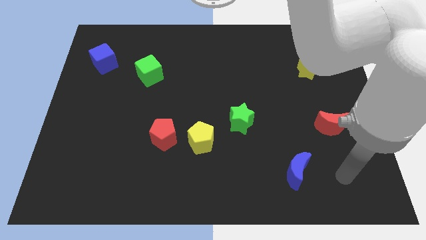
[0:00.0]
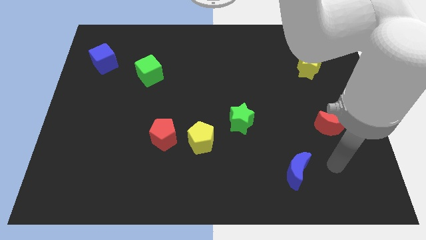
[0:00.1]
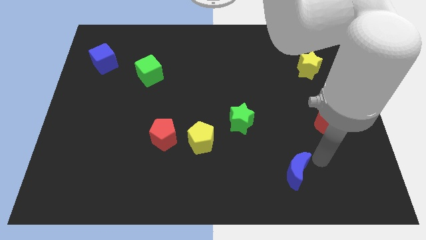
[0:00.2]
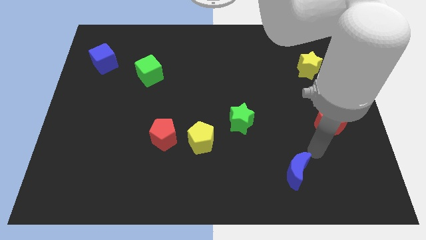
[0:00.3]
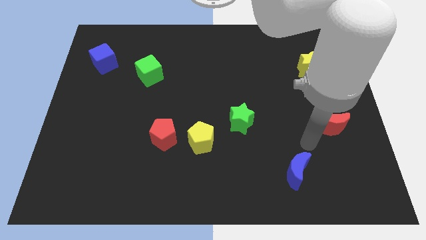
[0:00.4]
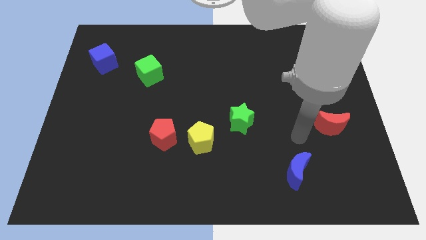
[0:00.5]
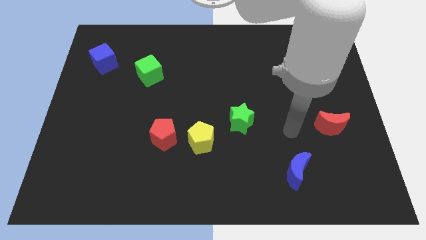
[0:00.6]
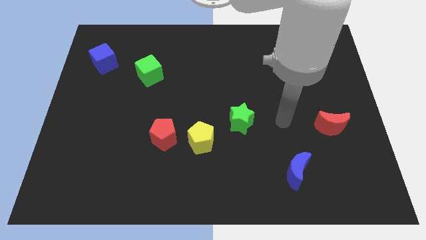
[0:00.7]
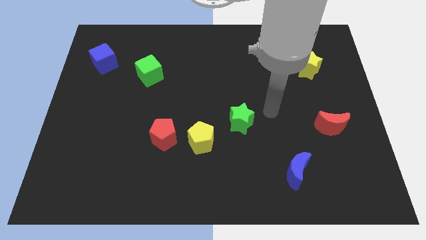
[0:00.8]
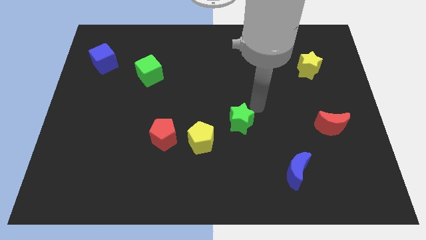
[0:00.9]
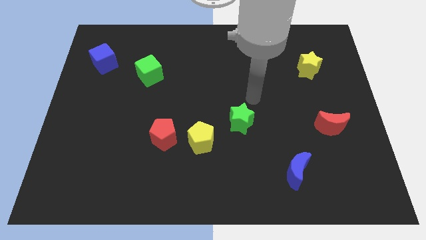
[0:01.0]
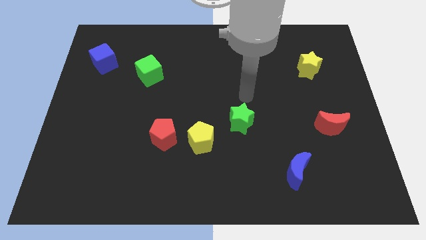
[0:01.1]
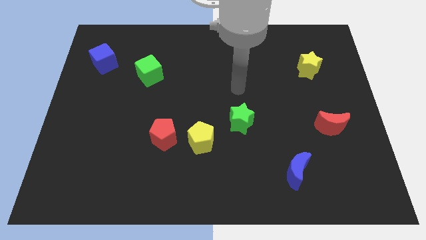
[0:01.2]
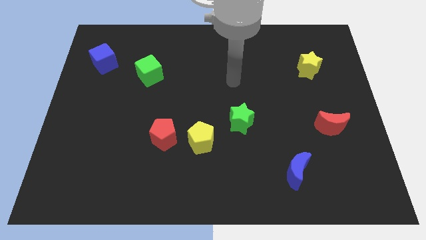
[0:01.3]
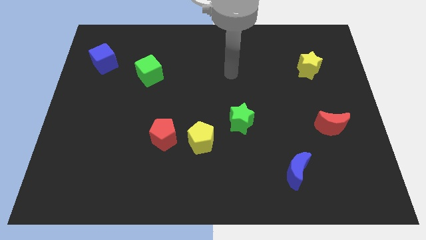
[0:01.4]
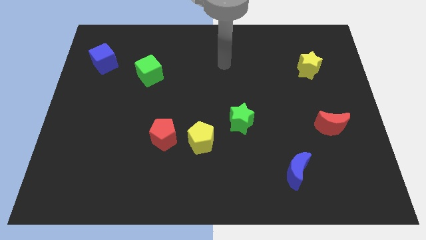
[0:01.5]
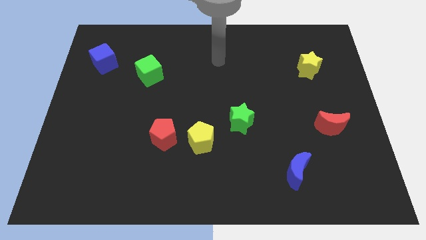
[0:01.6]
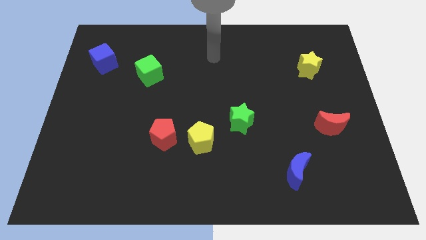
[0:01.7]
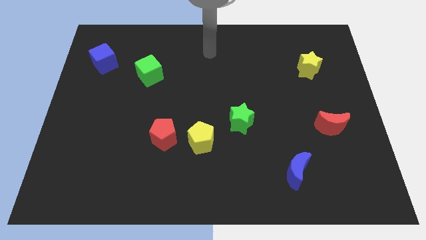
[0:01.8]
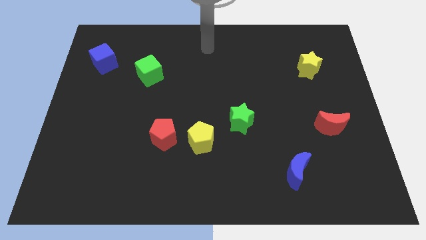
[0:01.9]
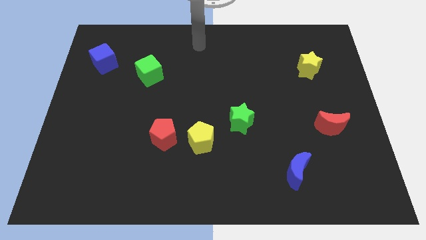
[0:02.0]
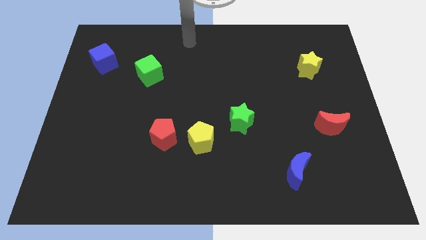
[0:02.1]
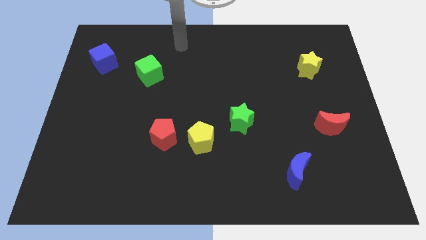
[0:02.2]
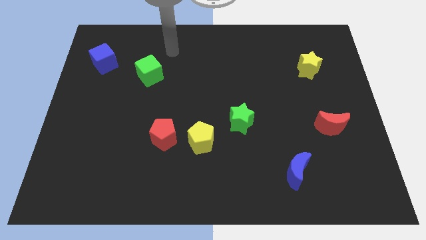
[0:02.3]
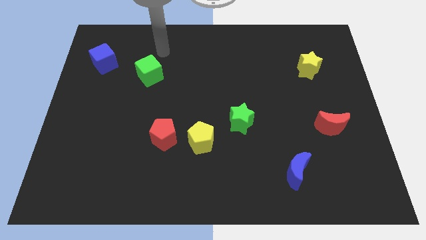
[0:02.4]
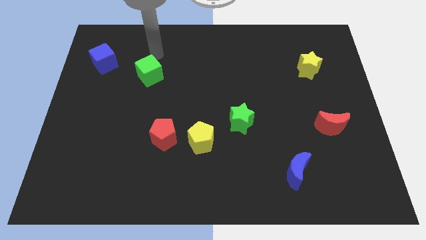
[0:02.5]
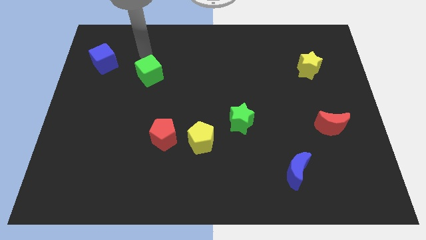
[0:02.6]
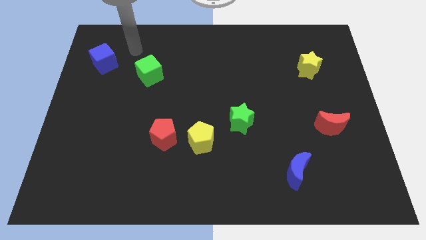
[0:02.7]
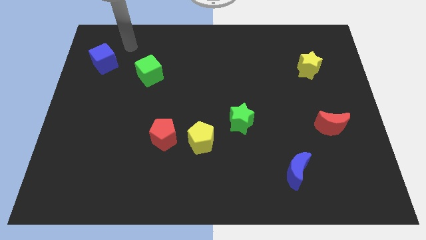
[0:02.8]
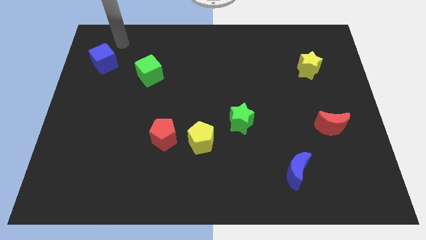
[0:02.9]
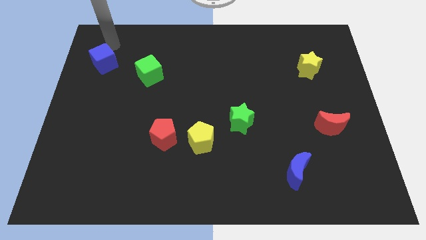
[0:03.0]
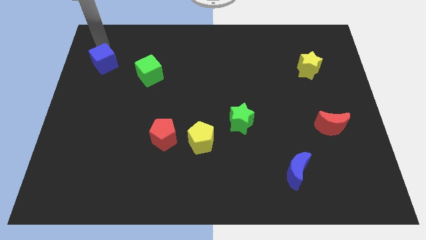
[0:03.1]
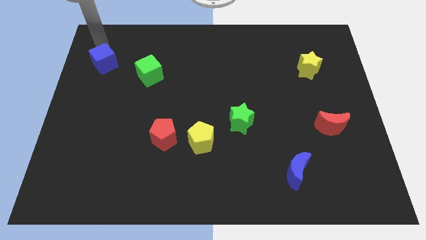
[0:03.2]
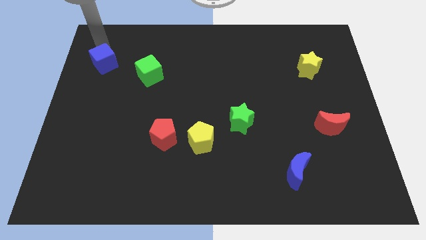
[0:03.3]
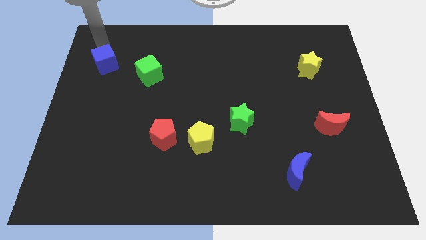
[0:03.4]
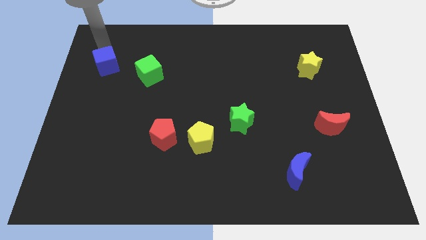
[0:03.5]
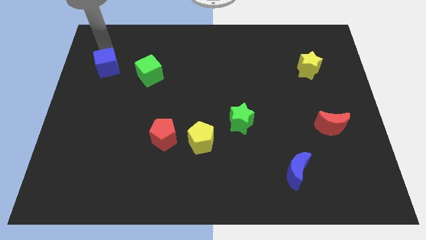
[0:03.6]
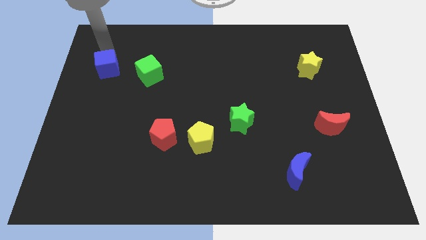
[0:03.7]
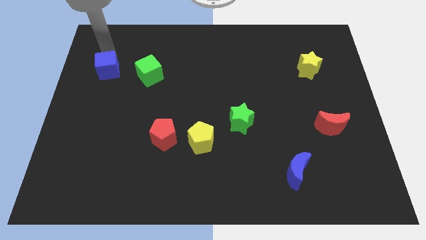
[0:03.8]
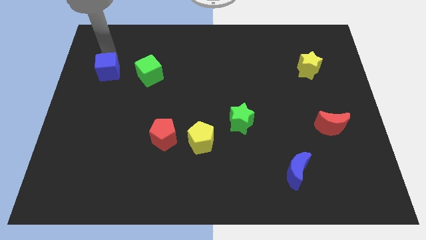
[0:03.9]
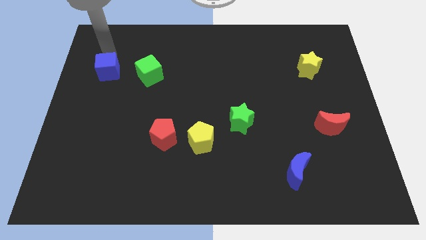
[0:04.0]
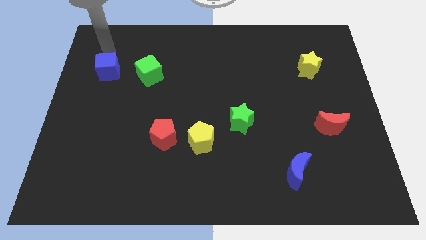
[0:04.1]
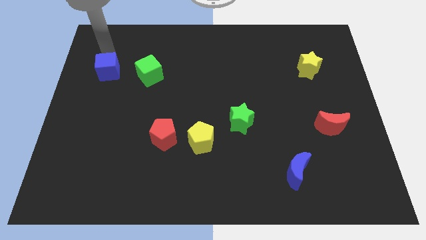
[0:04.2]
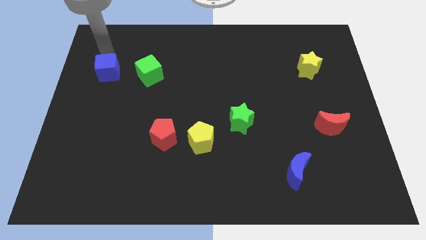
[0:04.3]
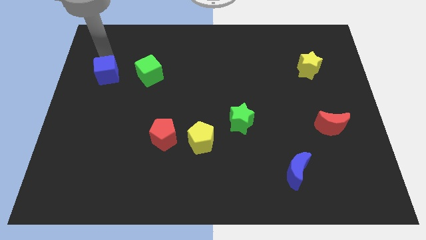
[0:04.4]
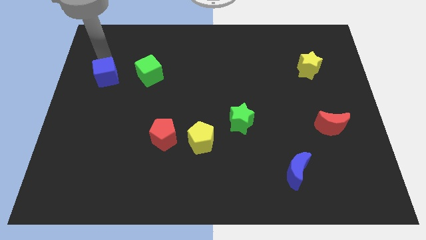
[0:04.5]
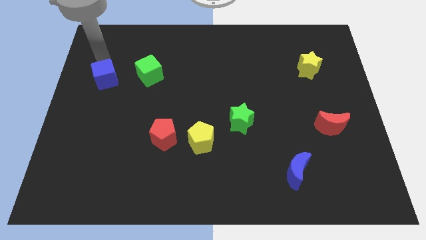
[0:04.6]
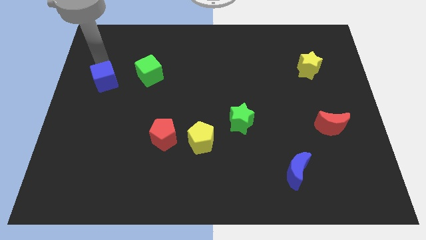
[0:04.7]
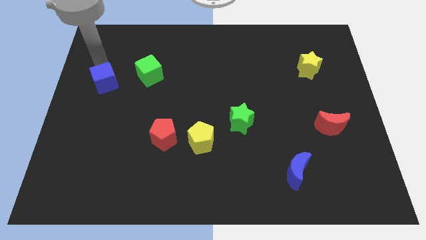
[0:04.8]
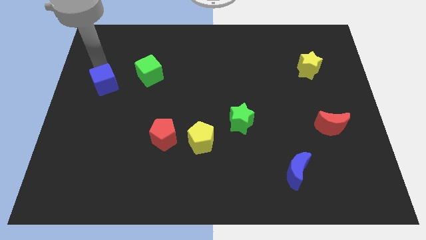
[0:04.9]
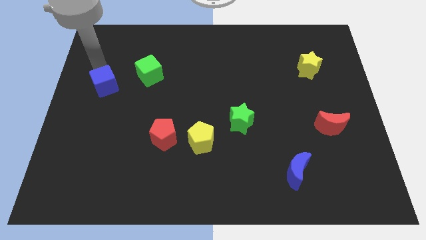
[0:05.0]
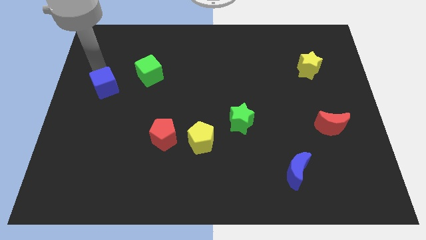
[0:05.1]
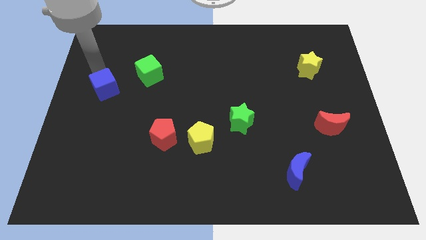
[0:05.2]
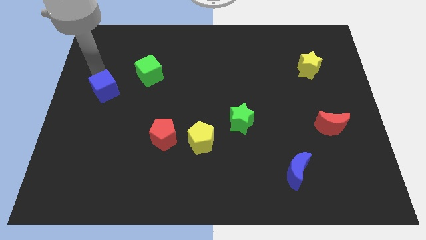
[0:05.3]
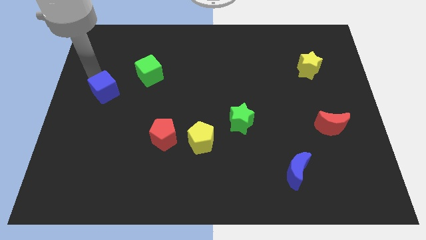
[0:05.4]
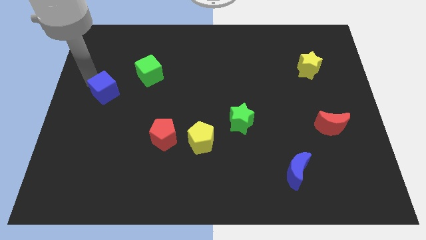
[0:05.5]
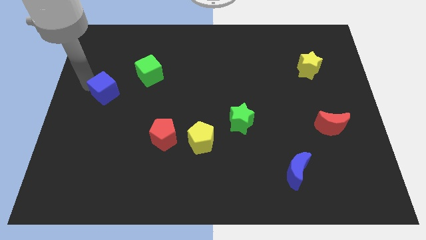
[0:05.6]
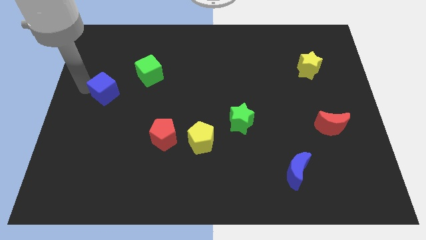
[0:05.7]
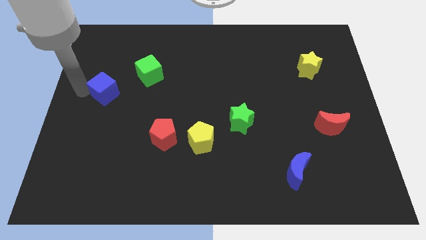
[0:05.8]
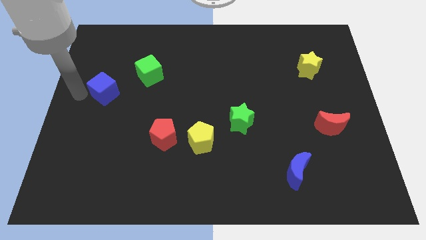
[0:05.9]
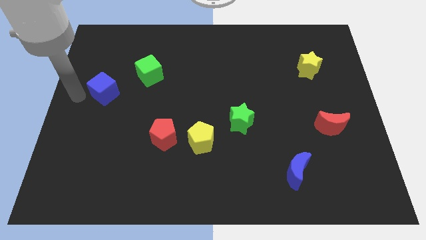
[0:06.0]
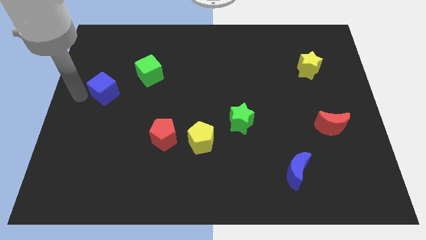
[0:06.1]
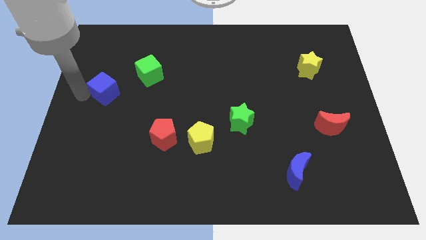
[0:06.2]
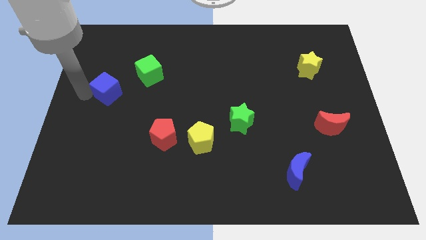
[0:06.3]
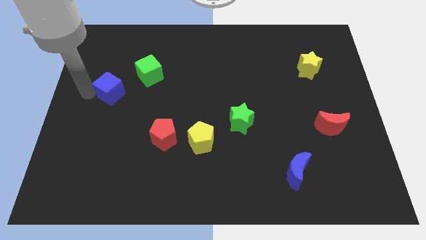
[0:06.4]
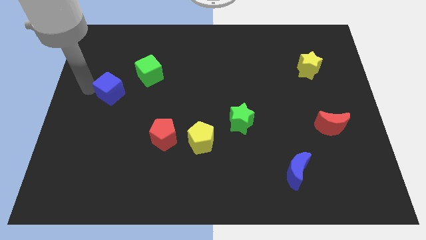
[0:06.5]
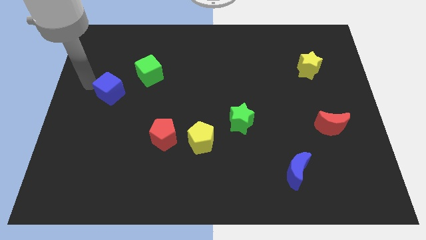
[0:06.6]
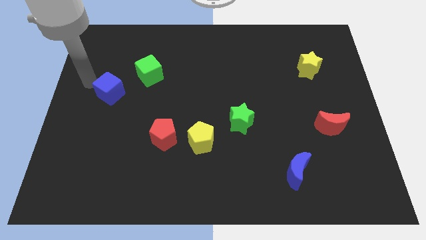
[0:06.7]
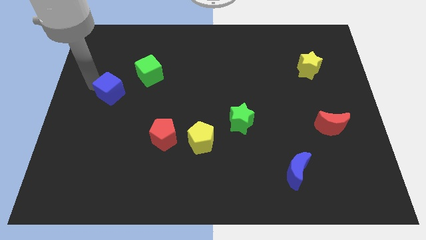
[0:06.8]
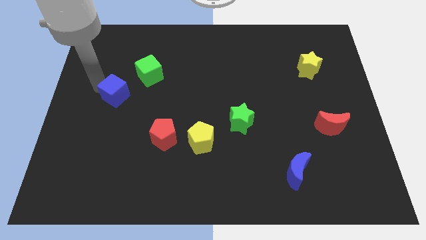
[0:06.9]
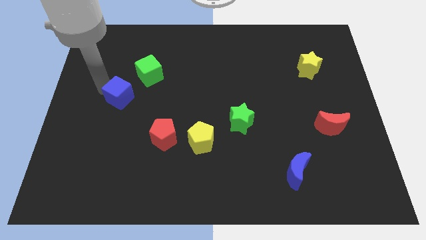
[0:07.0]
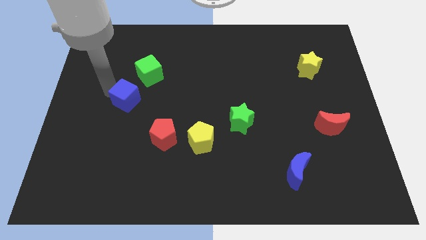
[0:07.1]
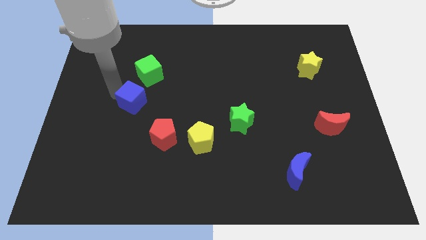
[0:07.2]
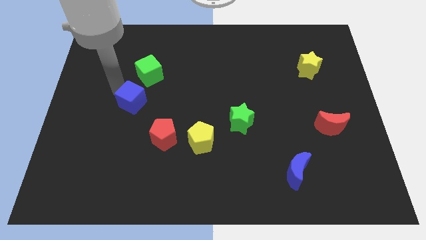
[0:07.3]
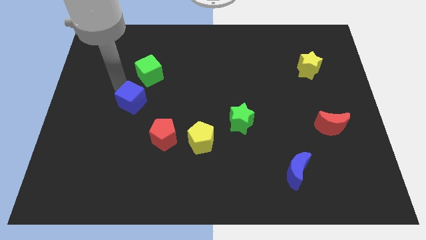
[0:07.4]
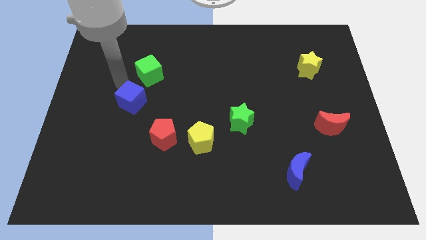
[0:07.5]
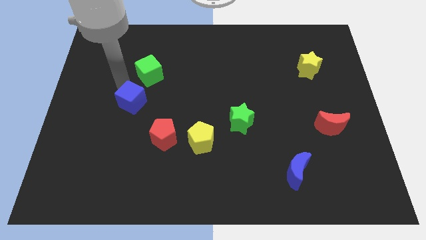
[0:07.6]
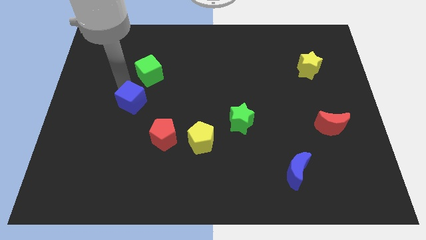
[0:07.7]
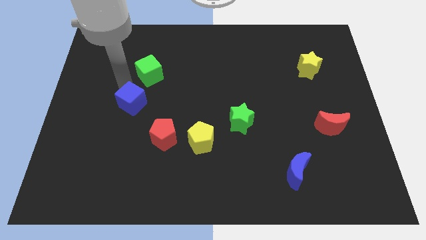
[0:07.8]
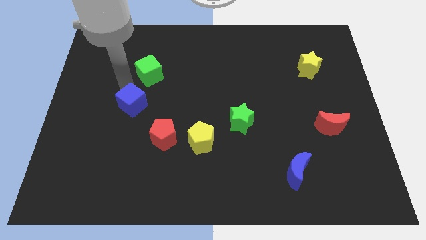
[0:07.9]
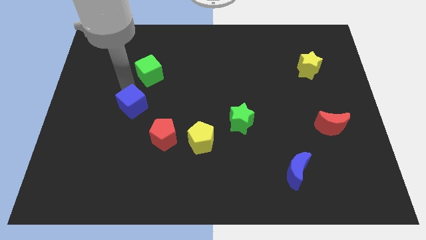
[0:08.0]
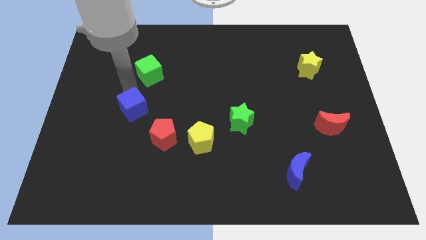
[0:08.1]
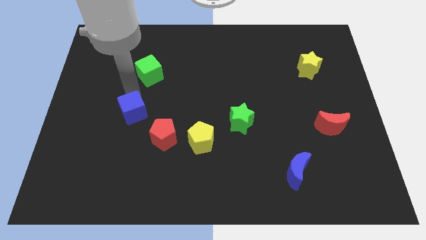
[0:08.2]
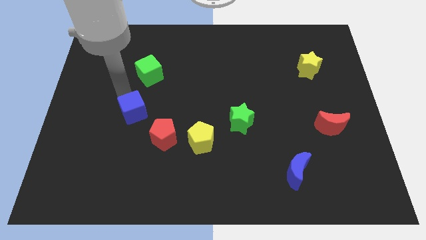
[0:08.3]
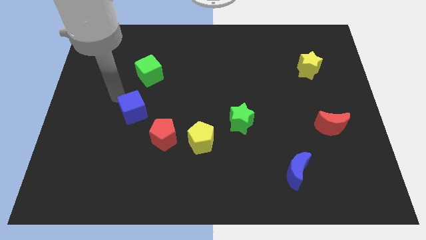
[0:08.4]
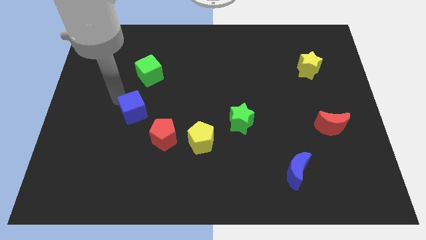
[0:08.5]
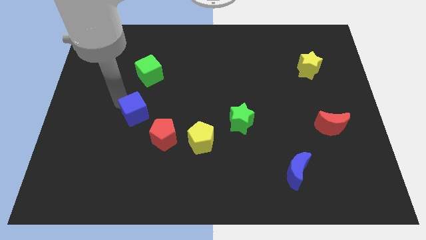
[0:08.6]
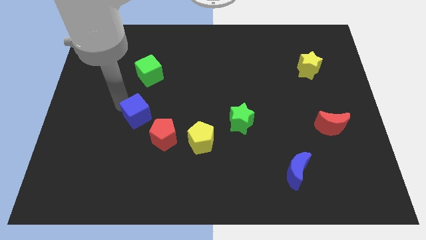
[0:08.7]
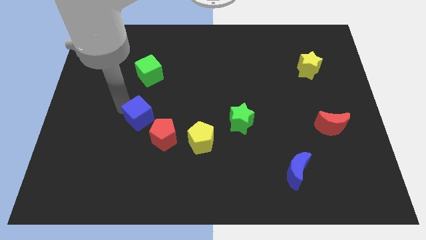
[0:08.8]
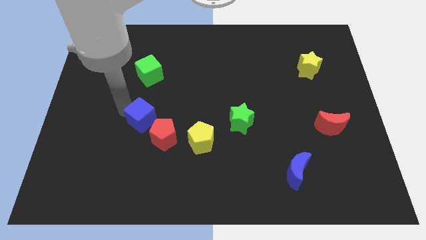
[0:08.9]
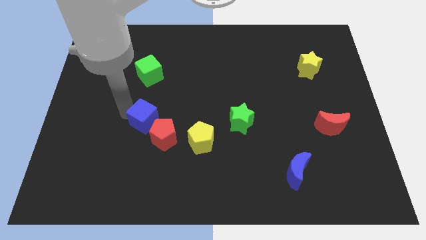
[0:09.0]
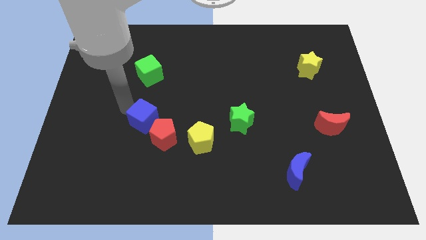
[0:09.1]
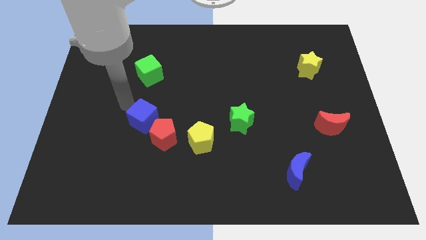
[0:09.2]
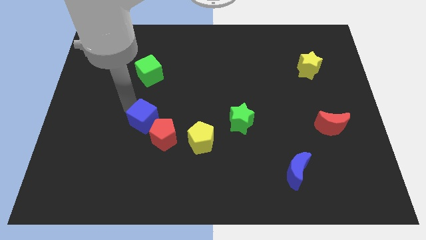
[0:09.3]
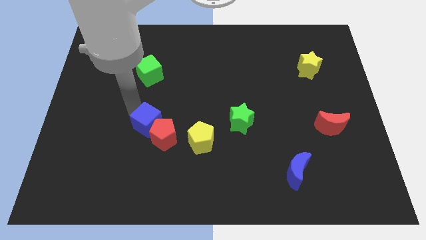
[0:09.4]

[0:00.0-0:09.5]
push the blue cube towards the red pentagon
